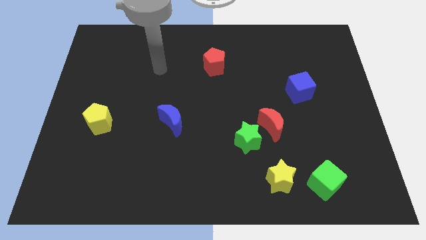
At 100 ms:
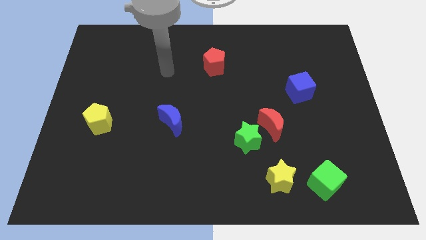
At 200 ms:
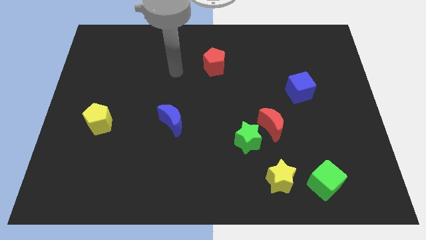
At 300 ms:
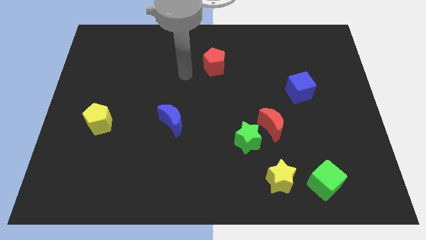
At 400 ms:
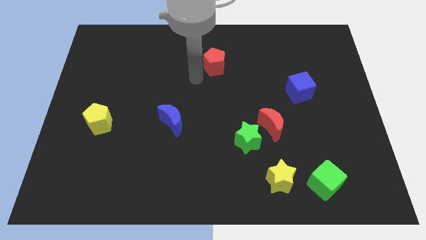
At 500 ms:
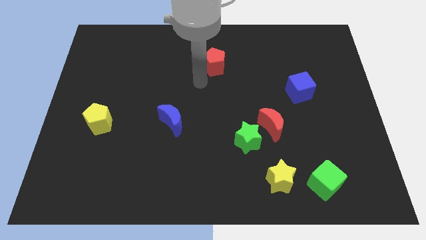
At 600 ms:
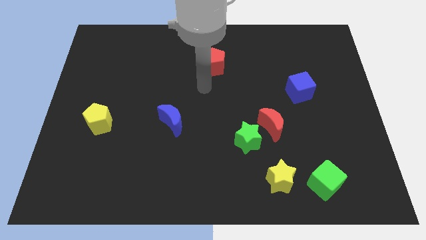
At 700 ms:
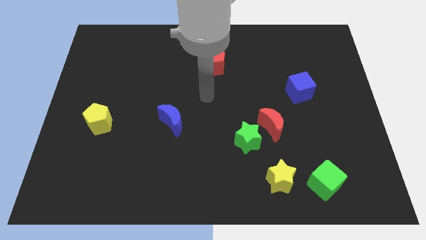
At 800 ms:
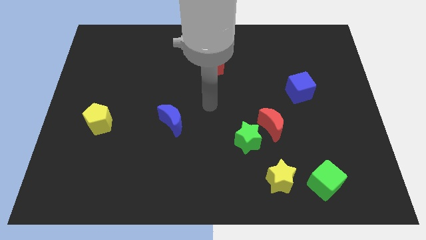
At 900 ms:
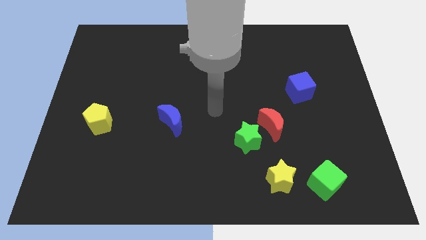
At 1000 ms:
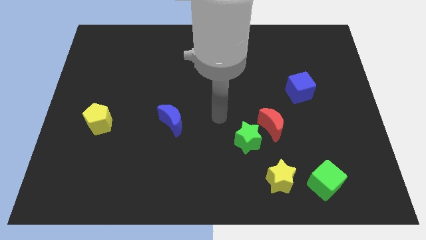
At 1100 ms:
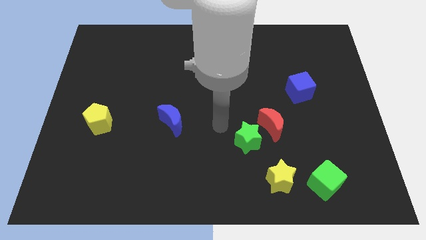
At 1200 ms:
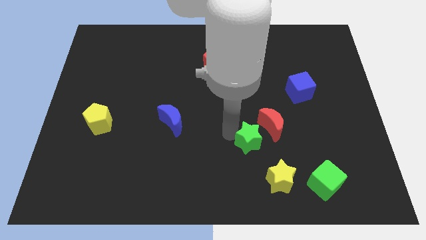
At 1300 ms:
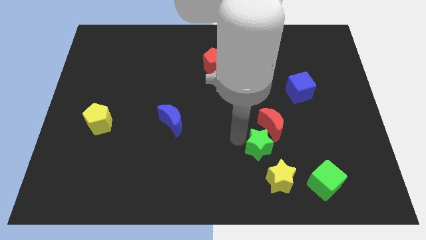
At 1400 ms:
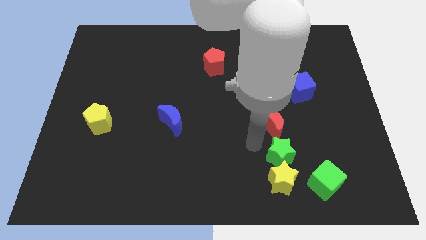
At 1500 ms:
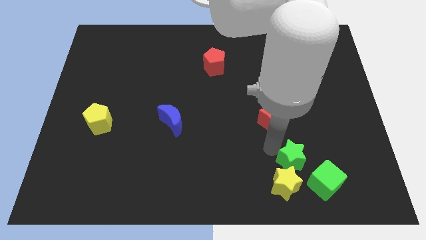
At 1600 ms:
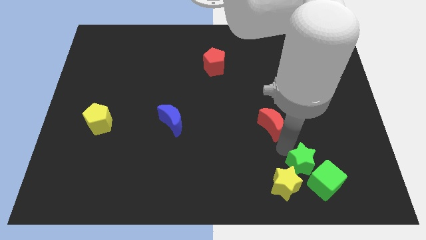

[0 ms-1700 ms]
pull the red moon apart from the green star

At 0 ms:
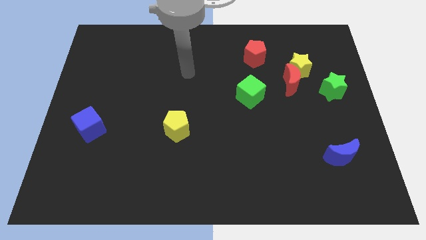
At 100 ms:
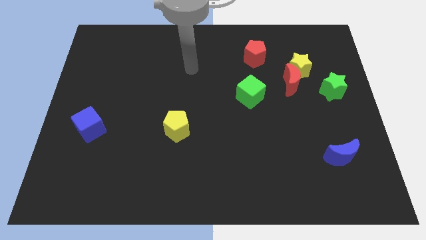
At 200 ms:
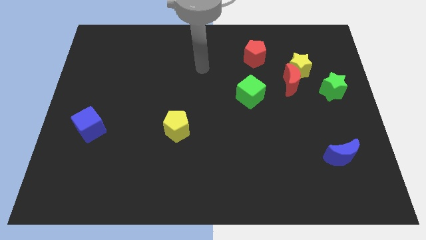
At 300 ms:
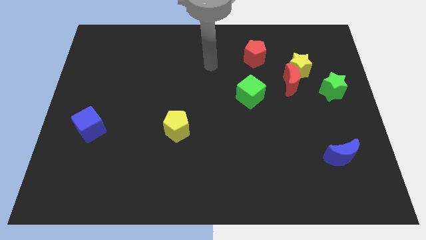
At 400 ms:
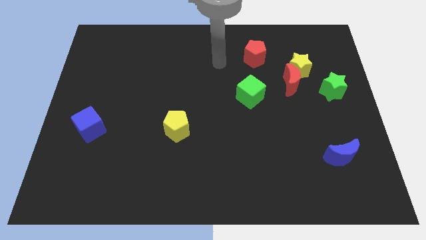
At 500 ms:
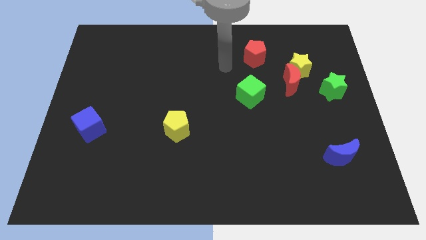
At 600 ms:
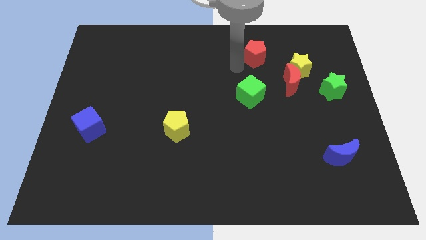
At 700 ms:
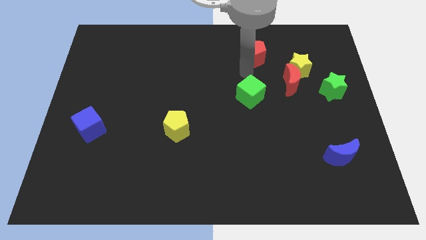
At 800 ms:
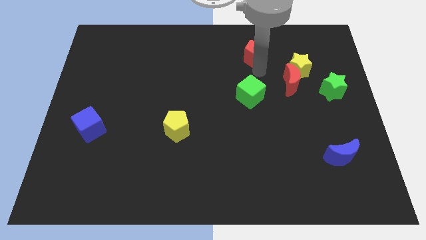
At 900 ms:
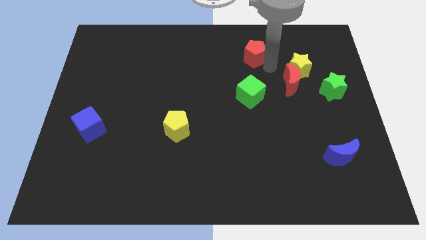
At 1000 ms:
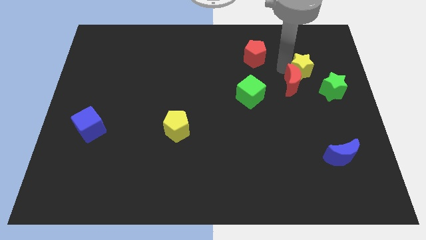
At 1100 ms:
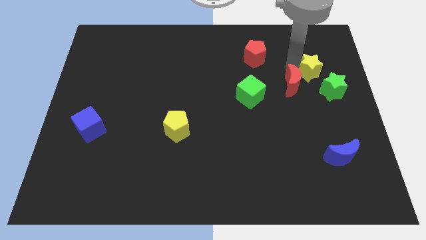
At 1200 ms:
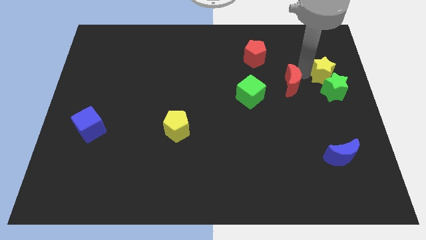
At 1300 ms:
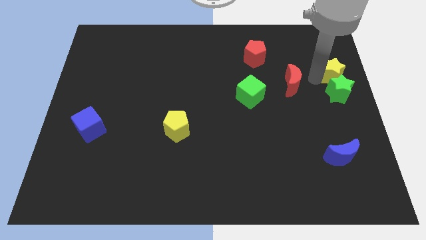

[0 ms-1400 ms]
pull the red moon apart from the yellow star and green star

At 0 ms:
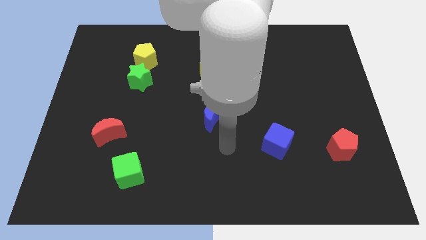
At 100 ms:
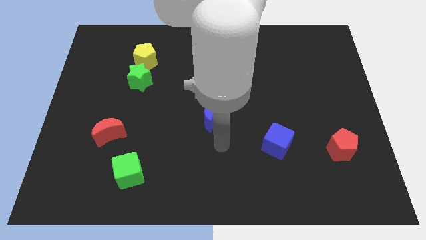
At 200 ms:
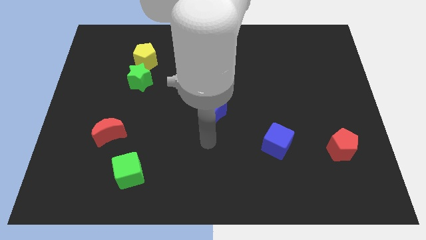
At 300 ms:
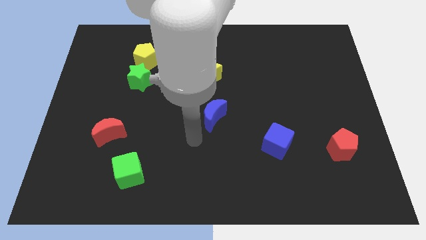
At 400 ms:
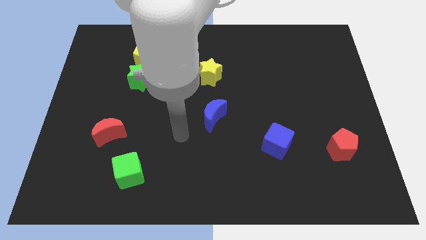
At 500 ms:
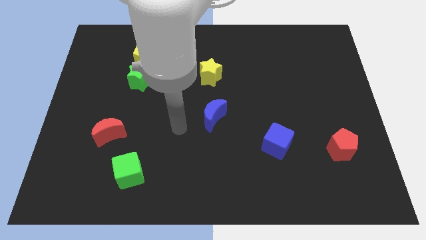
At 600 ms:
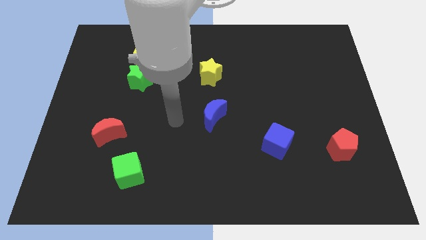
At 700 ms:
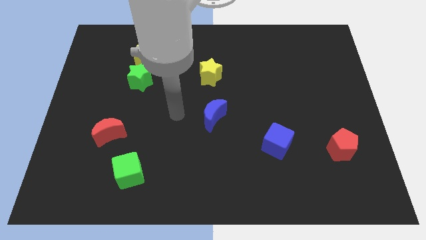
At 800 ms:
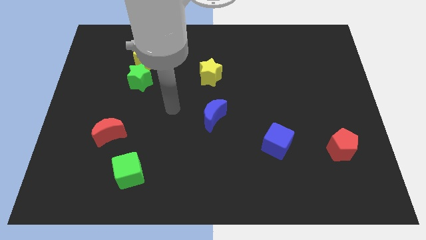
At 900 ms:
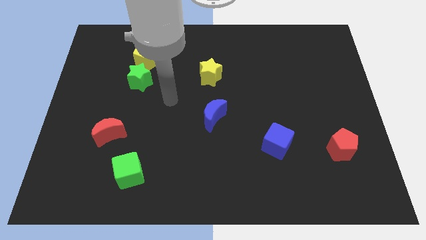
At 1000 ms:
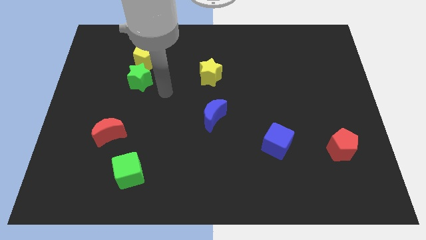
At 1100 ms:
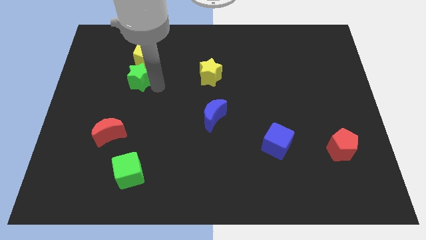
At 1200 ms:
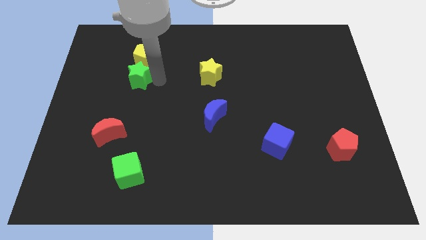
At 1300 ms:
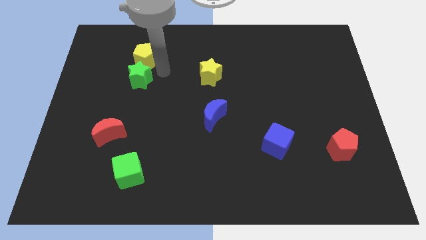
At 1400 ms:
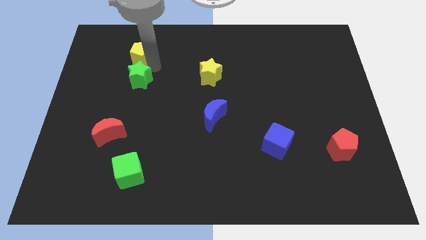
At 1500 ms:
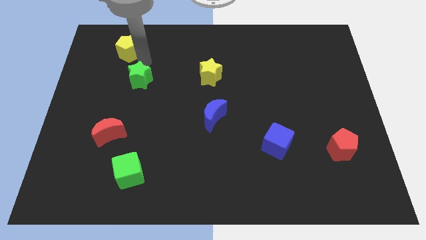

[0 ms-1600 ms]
separate the green star from the yellow pentagon

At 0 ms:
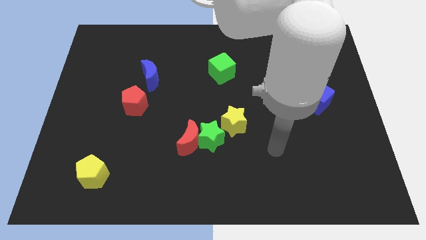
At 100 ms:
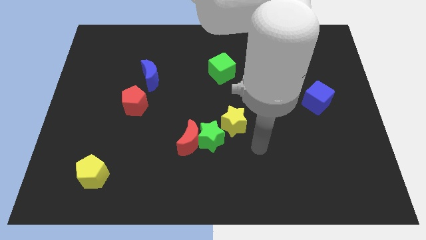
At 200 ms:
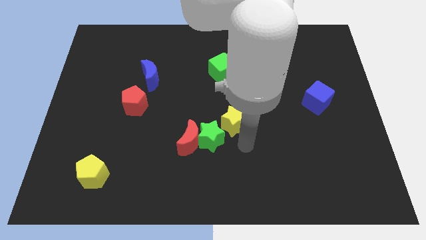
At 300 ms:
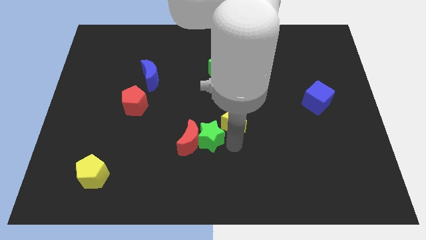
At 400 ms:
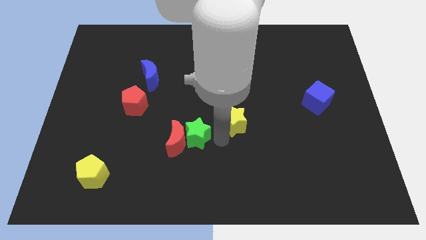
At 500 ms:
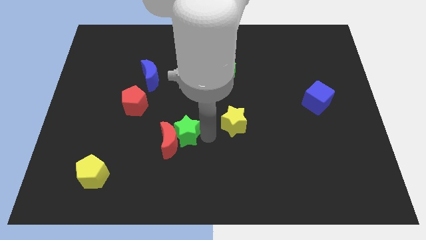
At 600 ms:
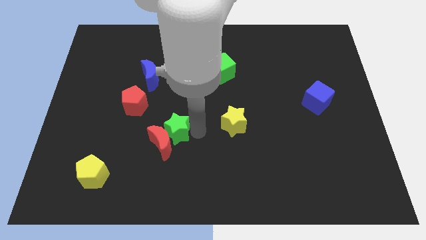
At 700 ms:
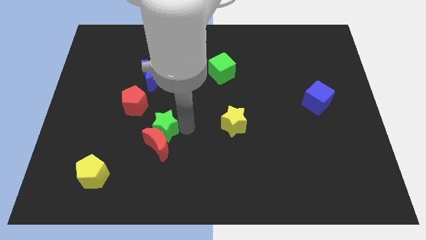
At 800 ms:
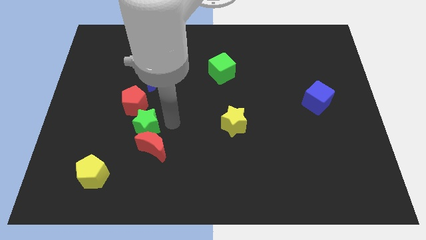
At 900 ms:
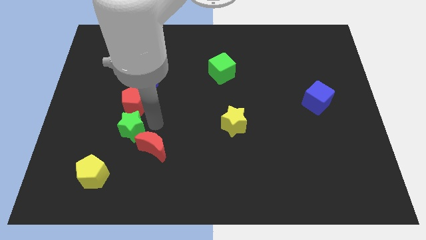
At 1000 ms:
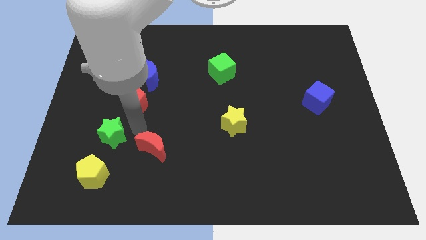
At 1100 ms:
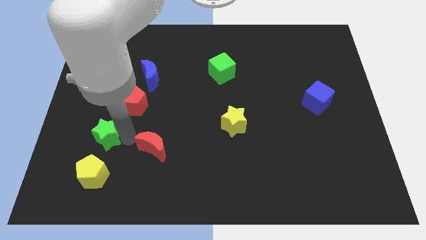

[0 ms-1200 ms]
separate the red moon from the green star

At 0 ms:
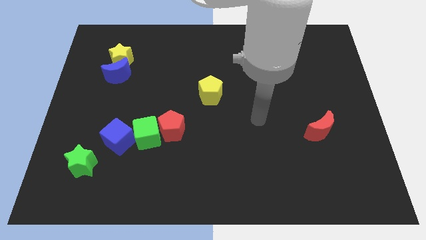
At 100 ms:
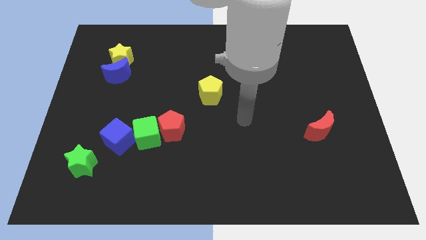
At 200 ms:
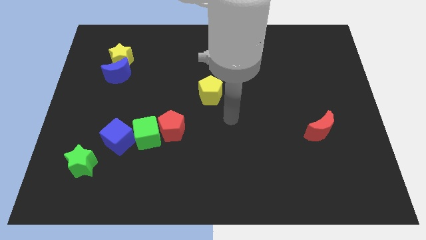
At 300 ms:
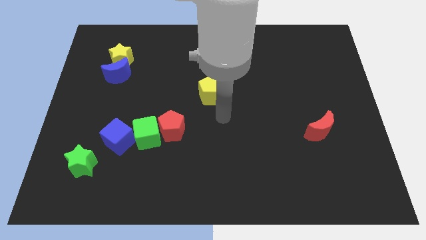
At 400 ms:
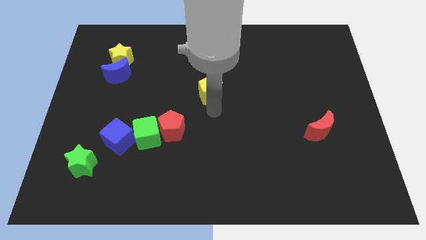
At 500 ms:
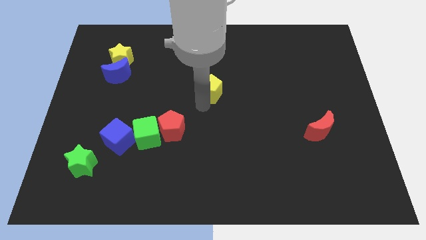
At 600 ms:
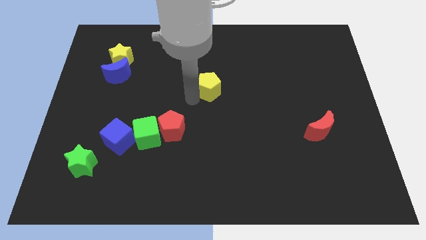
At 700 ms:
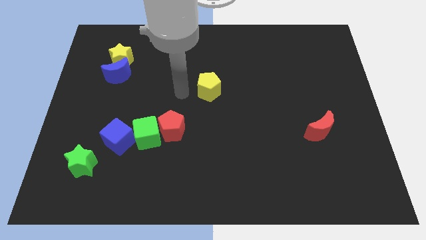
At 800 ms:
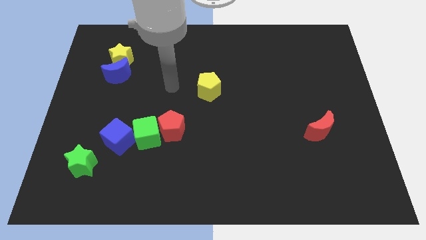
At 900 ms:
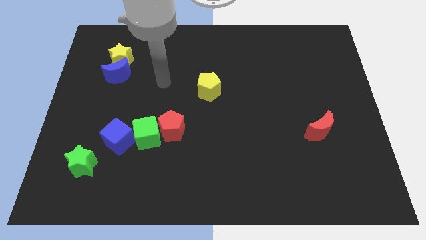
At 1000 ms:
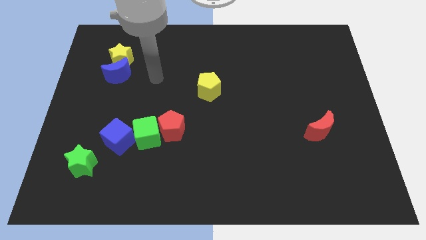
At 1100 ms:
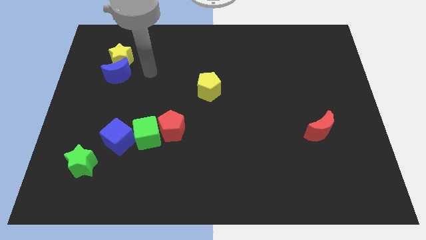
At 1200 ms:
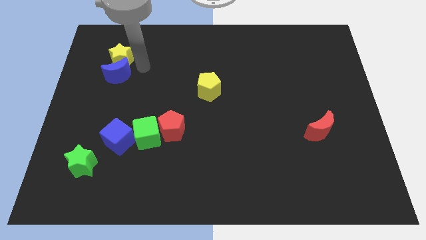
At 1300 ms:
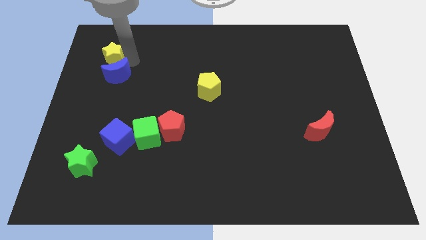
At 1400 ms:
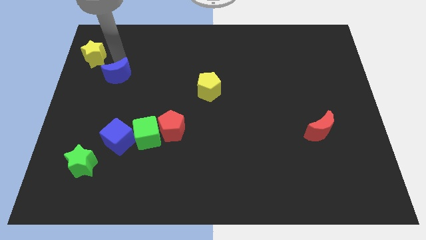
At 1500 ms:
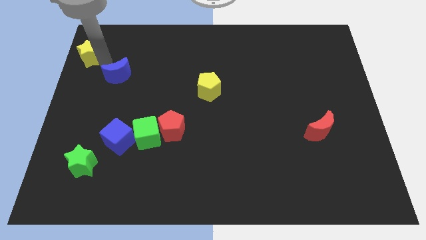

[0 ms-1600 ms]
move the blue moon away from the yellow star

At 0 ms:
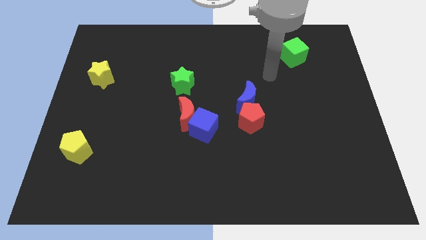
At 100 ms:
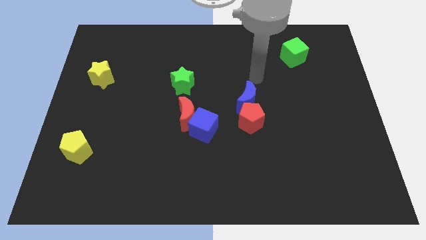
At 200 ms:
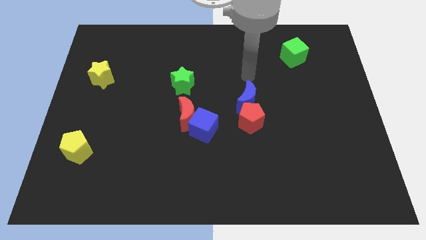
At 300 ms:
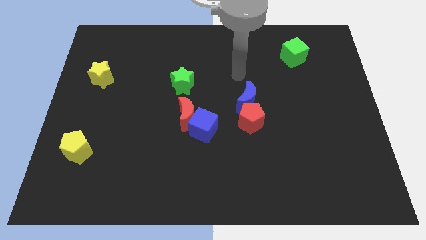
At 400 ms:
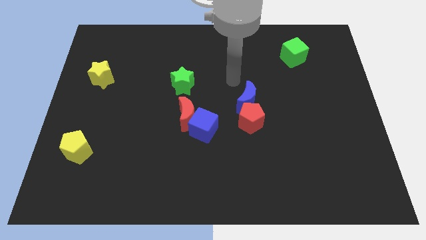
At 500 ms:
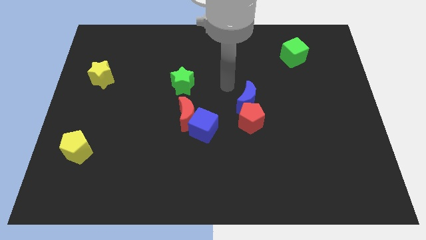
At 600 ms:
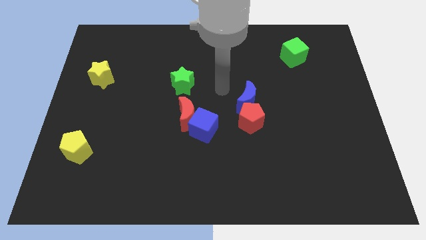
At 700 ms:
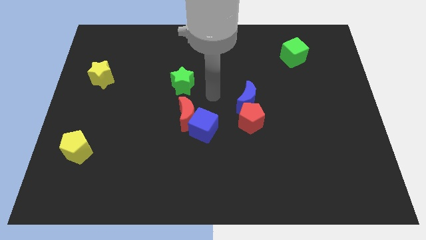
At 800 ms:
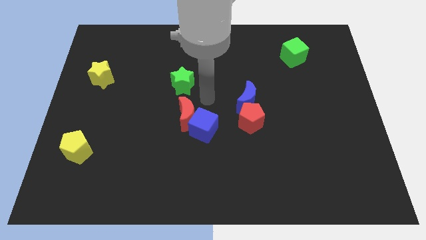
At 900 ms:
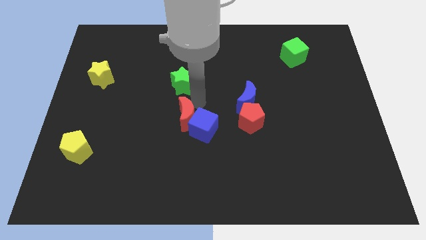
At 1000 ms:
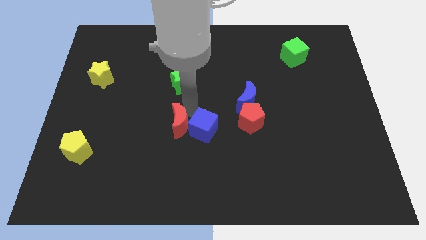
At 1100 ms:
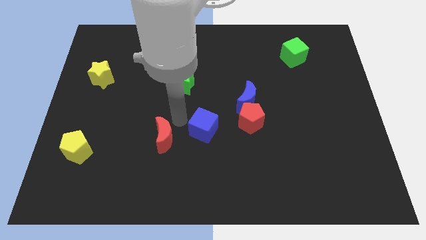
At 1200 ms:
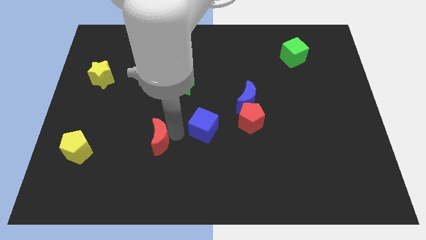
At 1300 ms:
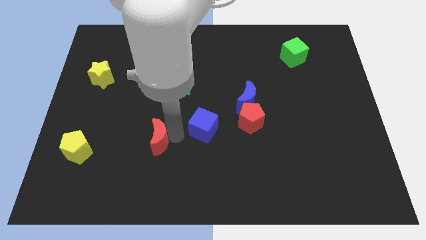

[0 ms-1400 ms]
separate the blue cube from the red moon

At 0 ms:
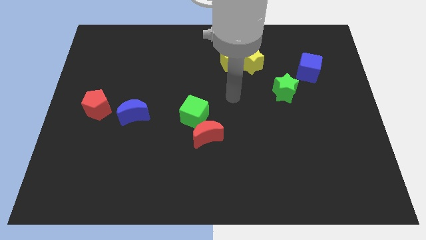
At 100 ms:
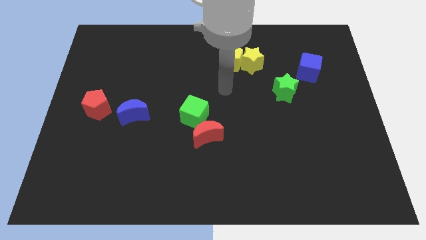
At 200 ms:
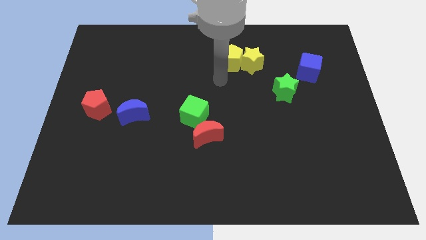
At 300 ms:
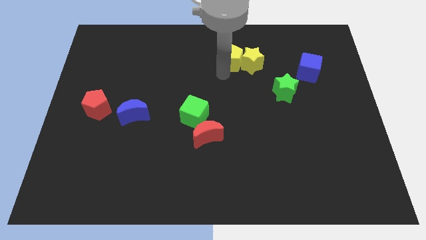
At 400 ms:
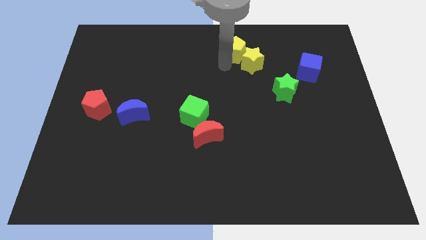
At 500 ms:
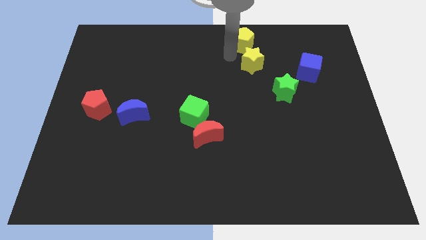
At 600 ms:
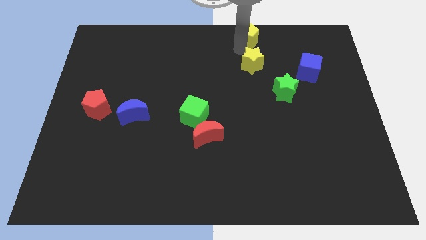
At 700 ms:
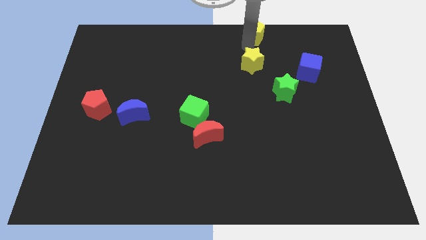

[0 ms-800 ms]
move the yellow star away from the yellow pentagon
